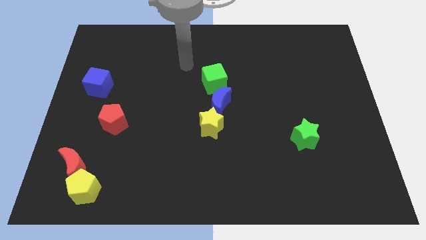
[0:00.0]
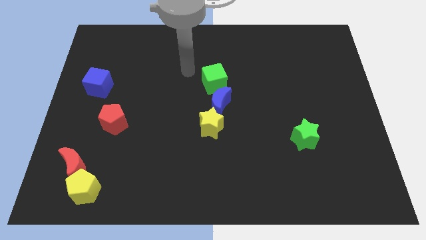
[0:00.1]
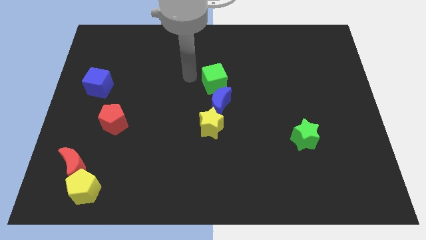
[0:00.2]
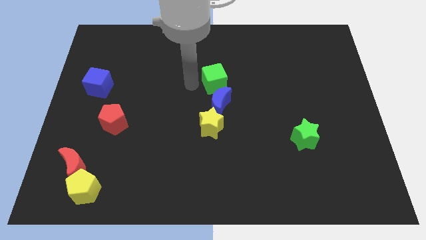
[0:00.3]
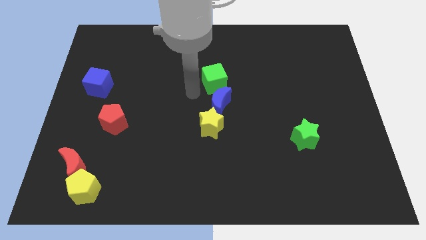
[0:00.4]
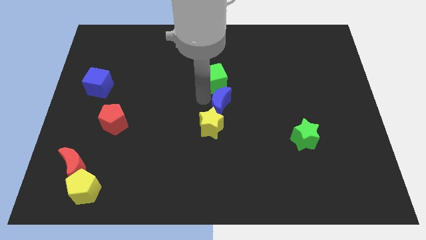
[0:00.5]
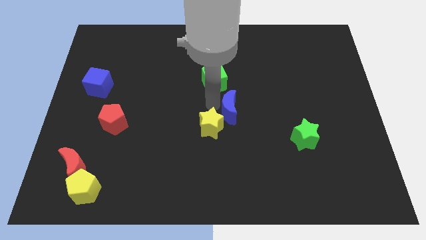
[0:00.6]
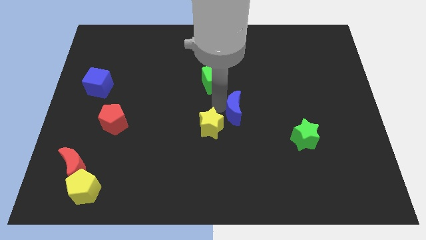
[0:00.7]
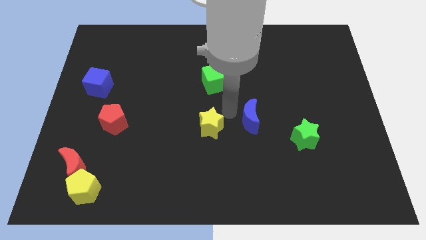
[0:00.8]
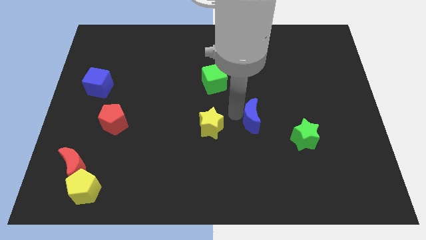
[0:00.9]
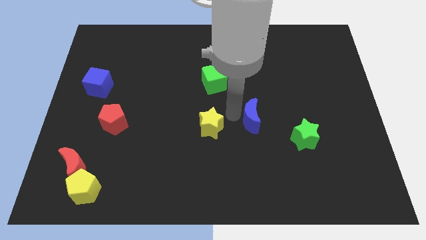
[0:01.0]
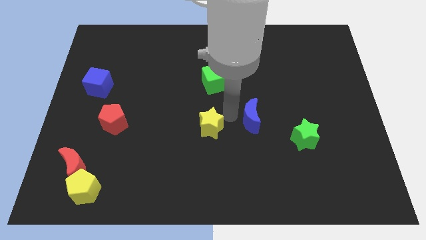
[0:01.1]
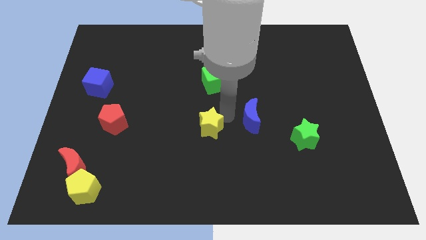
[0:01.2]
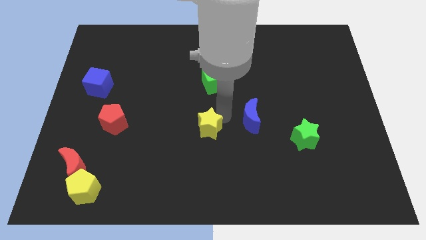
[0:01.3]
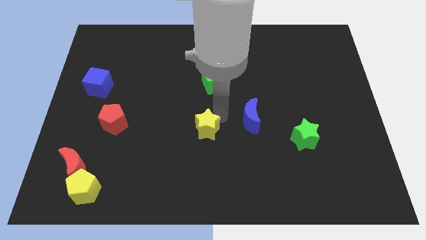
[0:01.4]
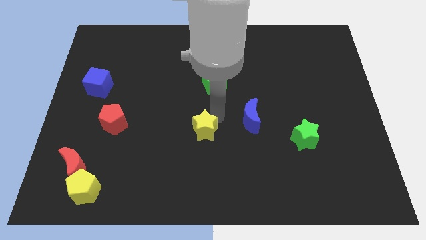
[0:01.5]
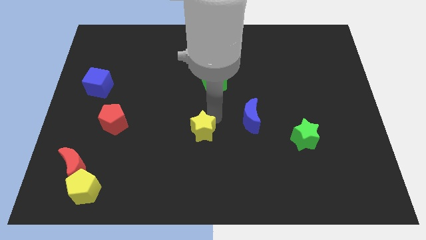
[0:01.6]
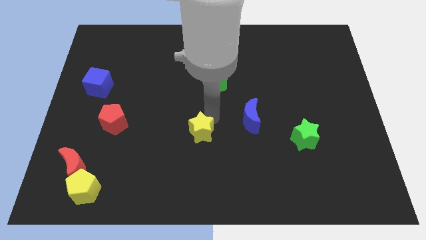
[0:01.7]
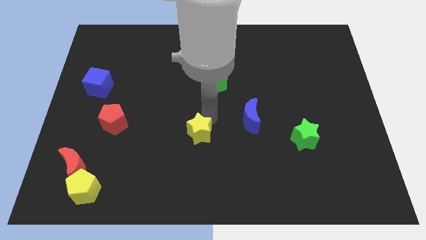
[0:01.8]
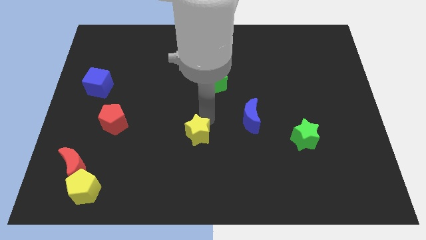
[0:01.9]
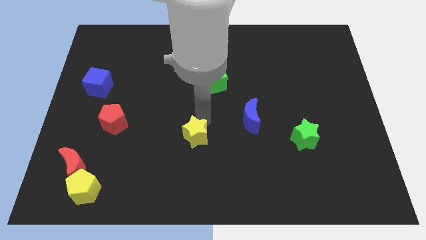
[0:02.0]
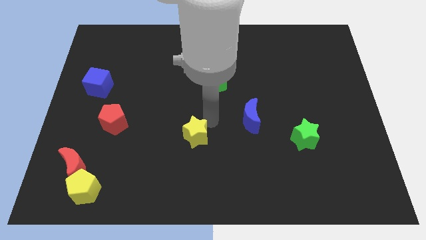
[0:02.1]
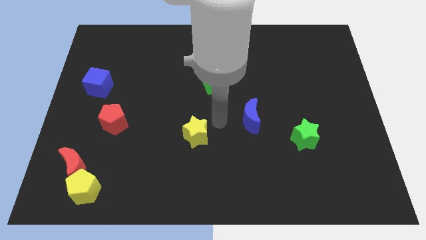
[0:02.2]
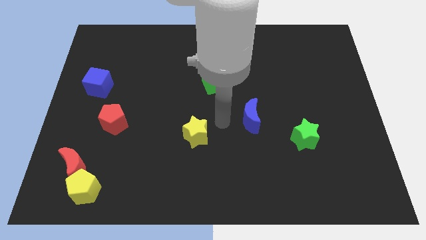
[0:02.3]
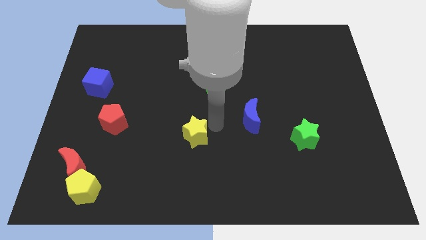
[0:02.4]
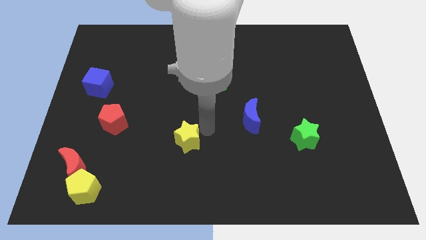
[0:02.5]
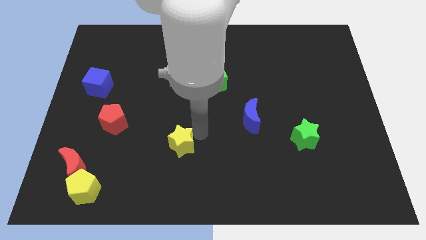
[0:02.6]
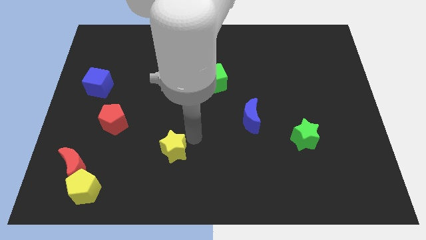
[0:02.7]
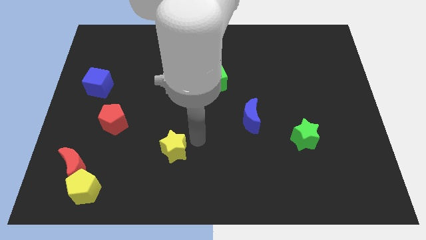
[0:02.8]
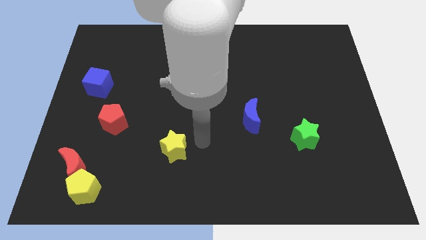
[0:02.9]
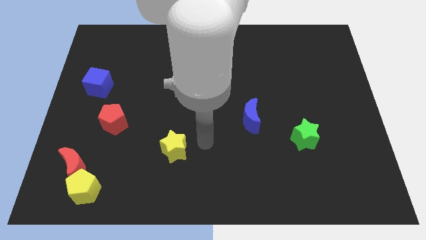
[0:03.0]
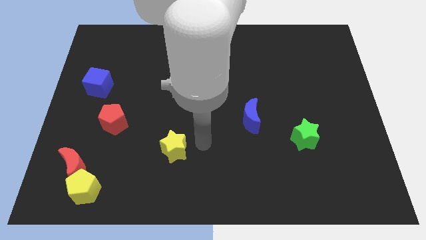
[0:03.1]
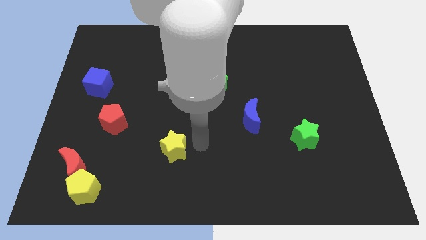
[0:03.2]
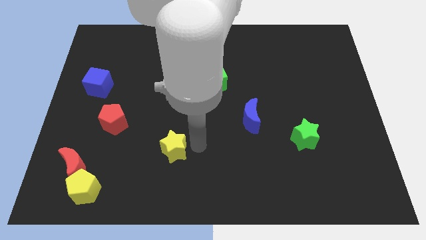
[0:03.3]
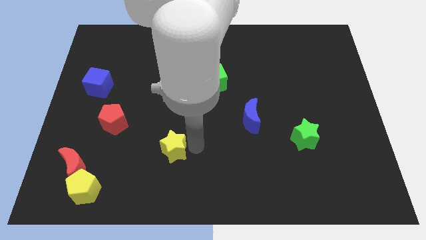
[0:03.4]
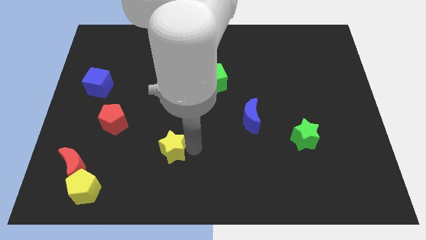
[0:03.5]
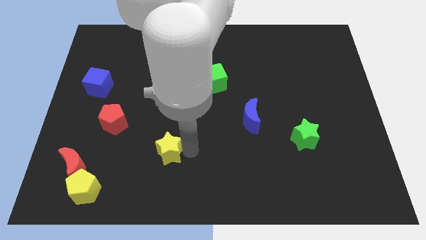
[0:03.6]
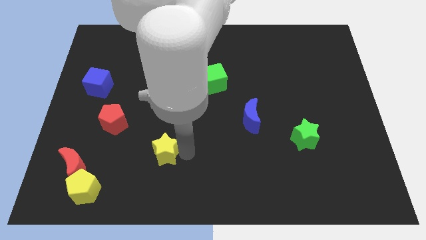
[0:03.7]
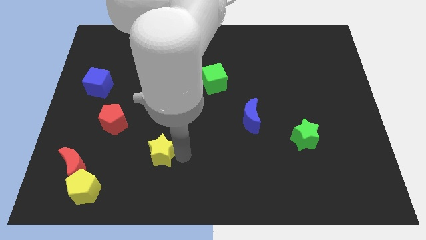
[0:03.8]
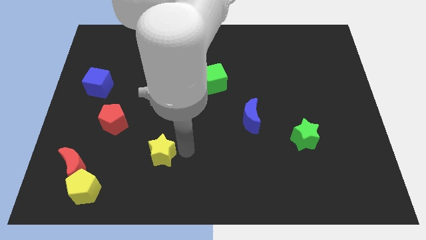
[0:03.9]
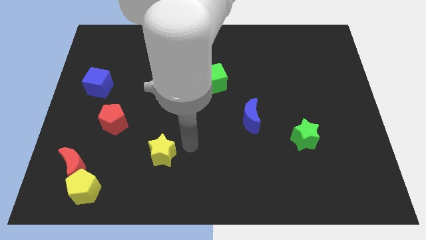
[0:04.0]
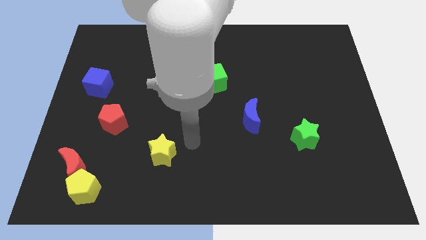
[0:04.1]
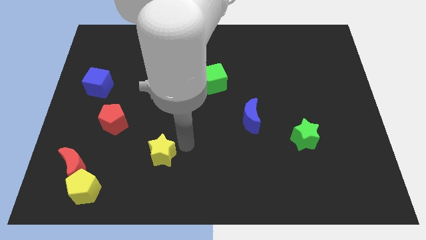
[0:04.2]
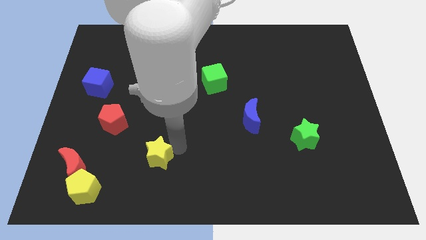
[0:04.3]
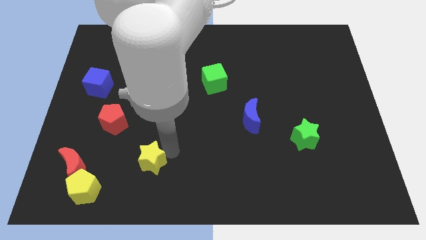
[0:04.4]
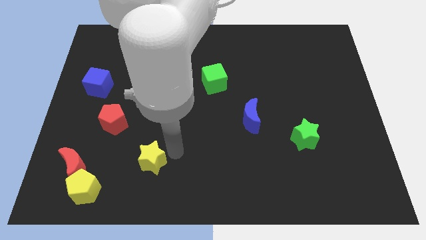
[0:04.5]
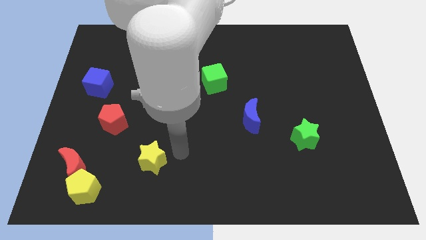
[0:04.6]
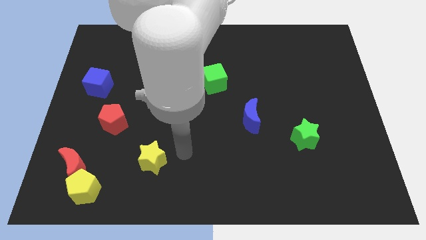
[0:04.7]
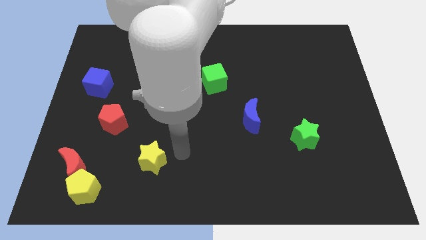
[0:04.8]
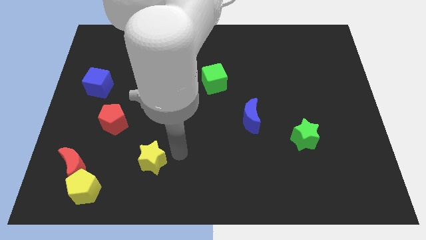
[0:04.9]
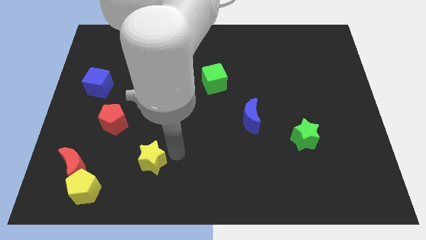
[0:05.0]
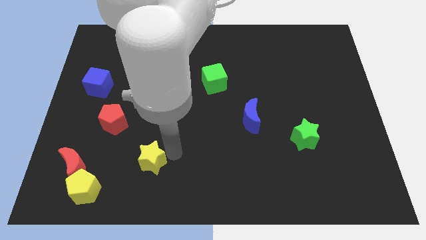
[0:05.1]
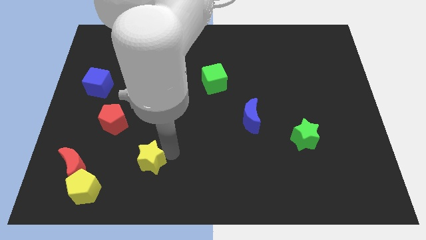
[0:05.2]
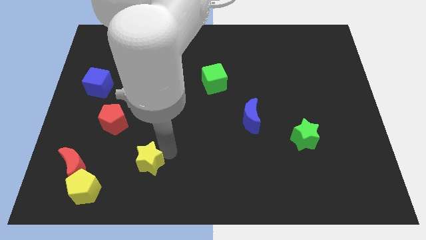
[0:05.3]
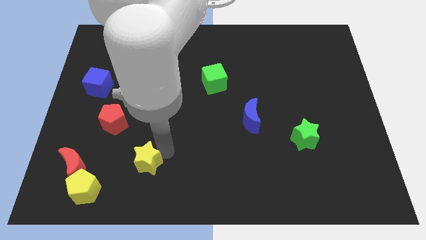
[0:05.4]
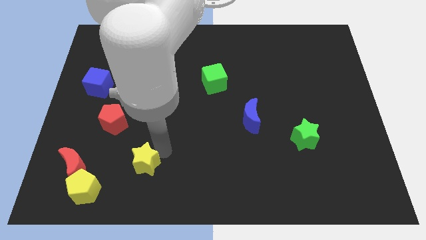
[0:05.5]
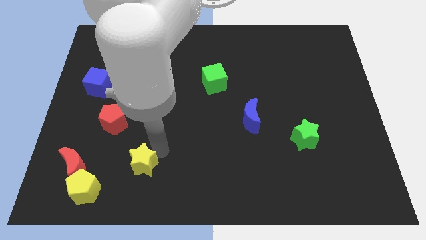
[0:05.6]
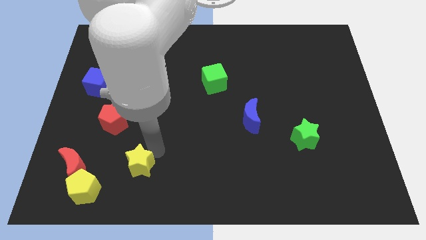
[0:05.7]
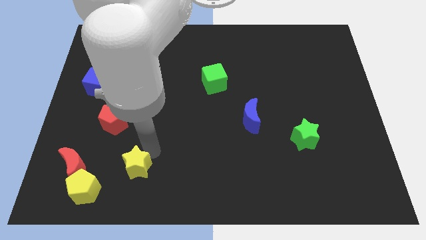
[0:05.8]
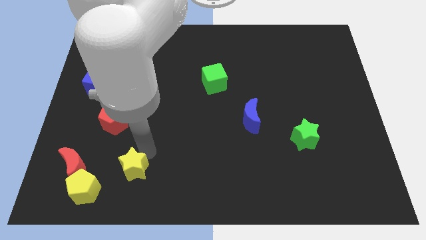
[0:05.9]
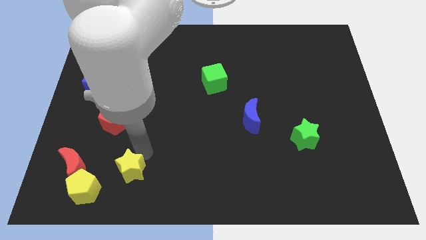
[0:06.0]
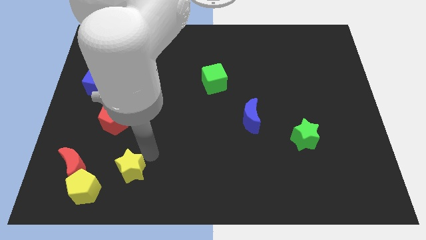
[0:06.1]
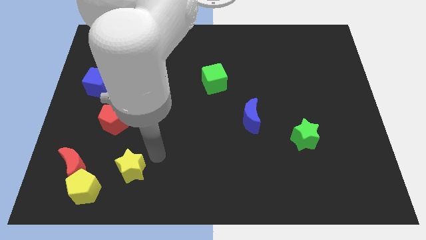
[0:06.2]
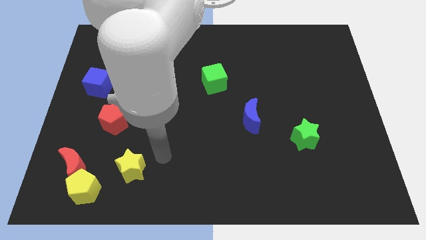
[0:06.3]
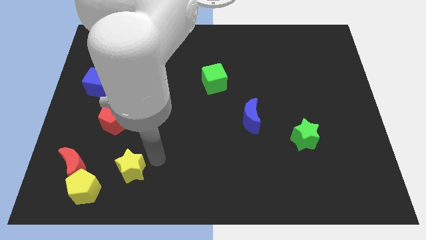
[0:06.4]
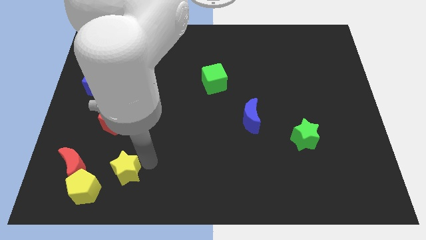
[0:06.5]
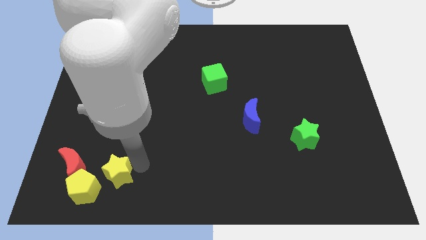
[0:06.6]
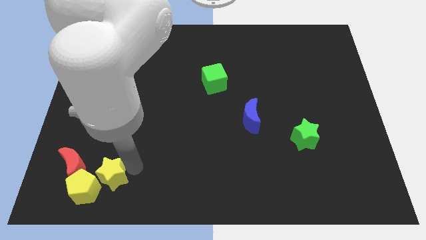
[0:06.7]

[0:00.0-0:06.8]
push the yellow star close to the yellow pentagon
